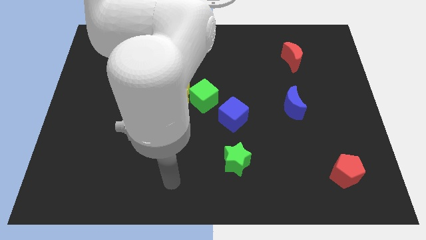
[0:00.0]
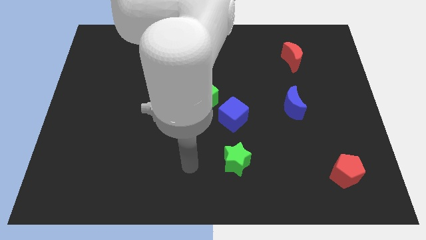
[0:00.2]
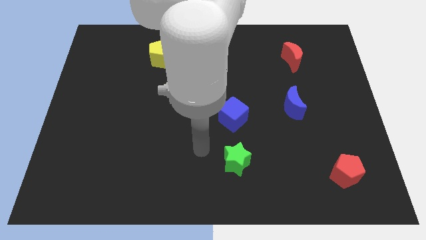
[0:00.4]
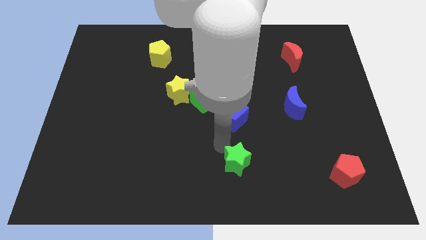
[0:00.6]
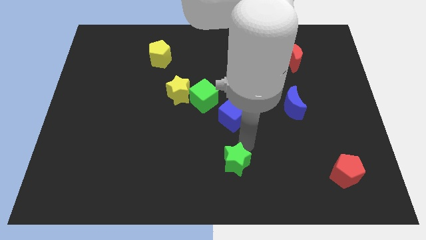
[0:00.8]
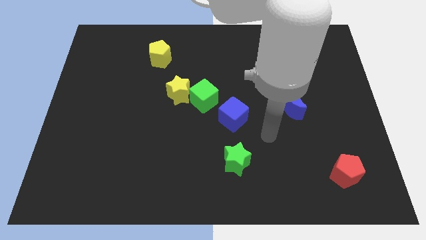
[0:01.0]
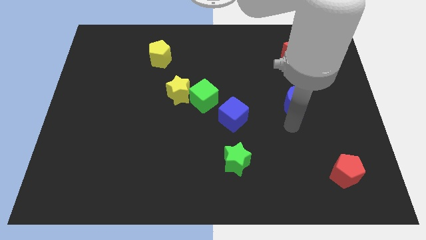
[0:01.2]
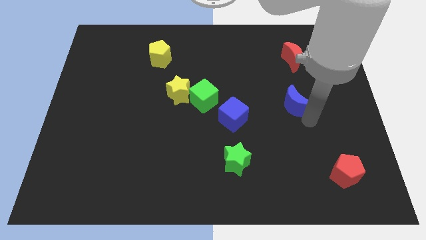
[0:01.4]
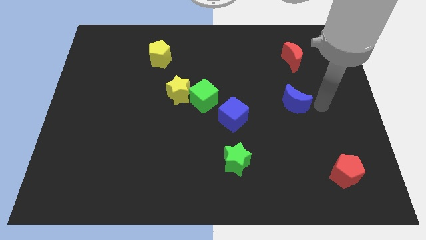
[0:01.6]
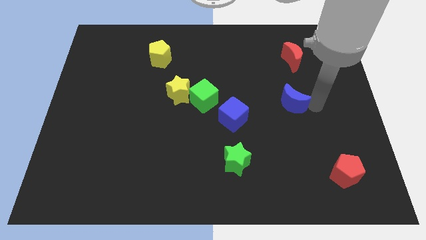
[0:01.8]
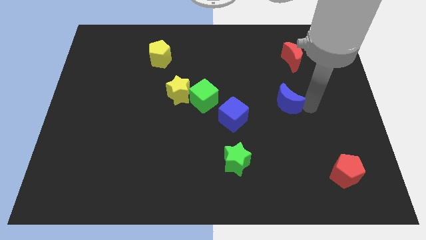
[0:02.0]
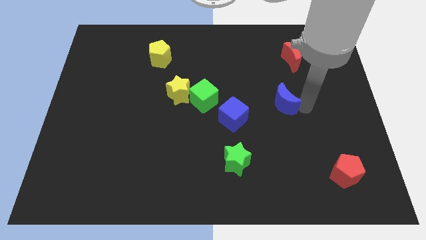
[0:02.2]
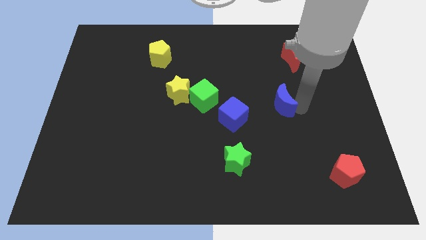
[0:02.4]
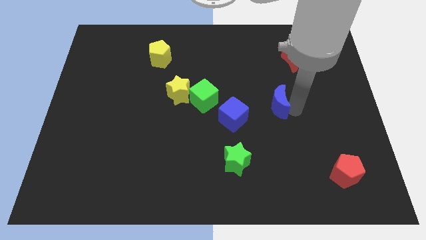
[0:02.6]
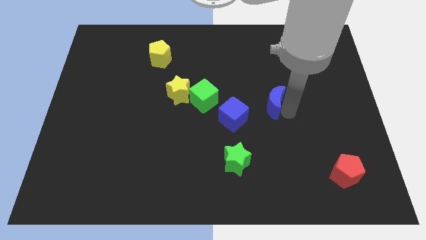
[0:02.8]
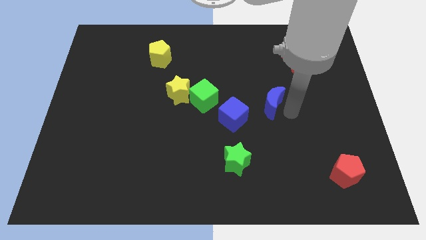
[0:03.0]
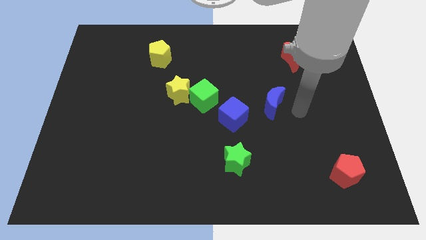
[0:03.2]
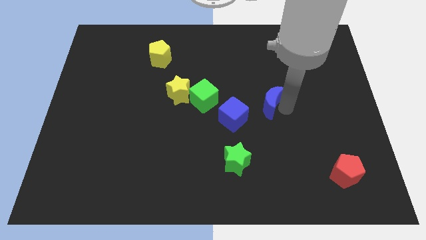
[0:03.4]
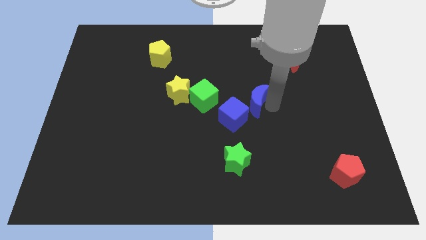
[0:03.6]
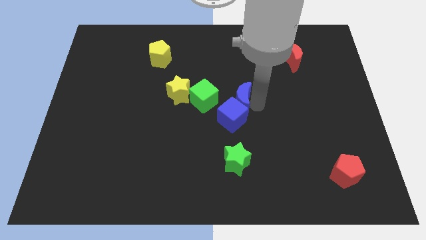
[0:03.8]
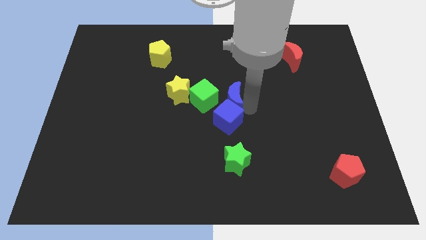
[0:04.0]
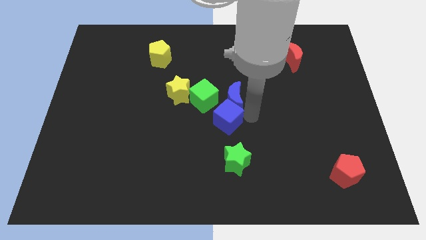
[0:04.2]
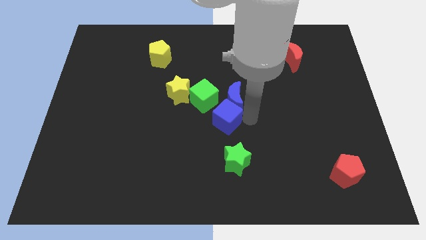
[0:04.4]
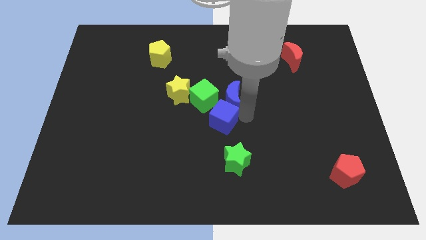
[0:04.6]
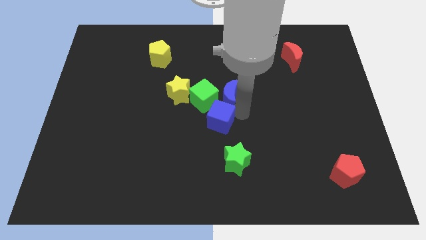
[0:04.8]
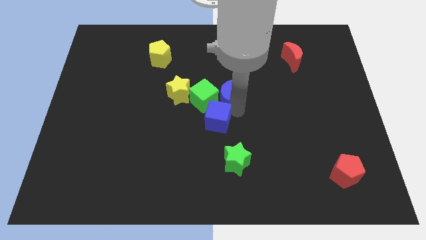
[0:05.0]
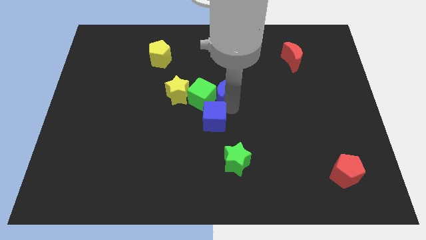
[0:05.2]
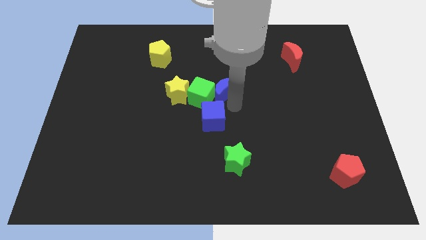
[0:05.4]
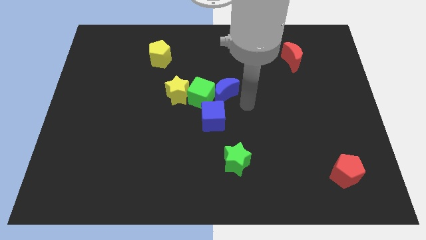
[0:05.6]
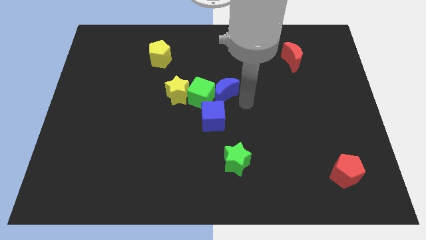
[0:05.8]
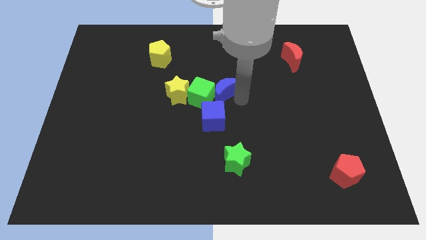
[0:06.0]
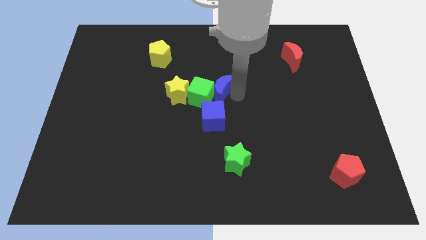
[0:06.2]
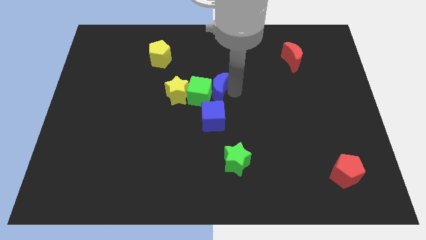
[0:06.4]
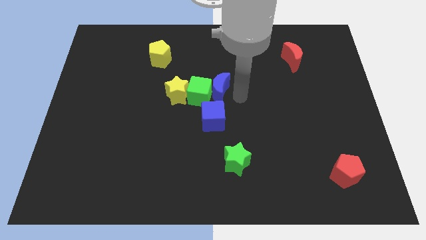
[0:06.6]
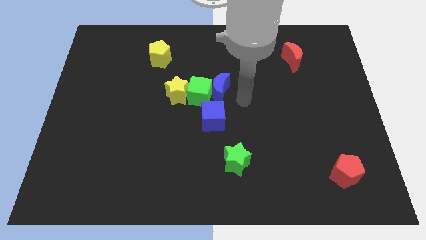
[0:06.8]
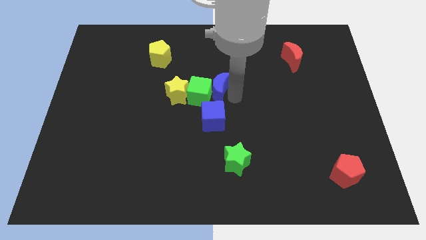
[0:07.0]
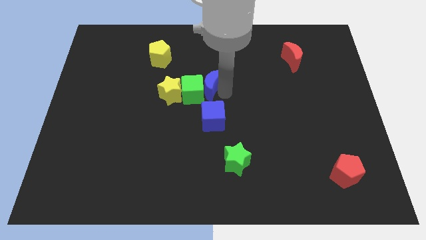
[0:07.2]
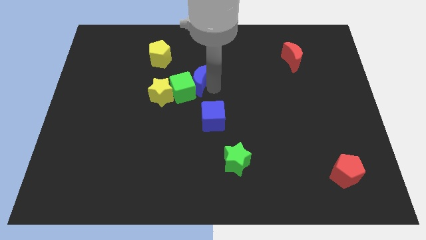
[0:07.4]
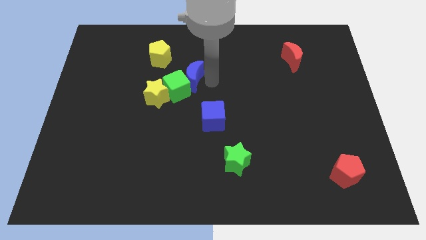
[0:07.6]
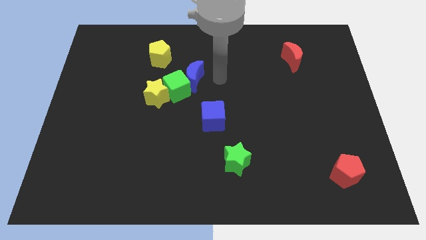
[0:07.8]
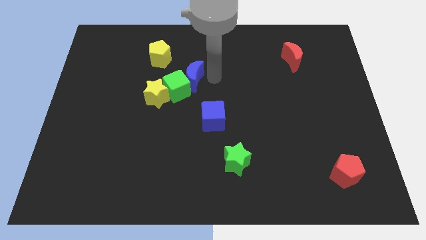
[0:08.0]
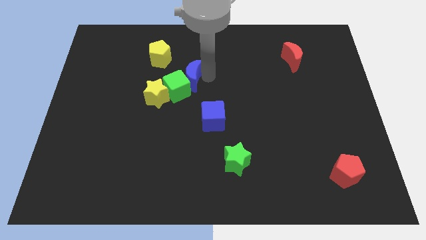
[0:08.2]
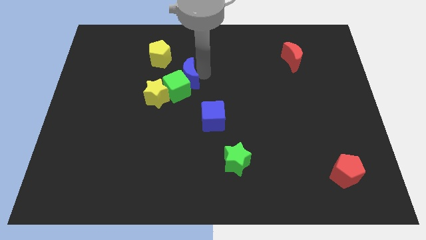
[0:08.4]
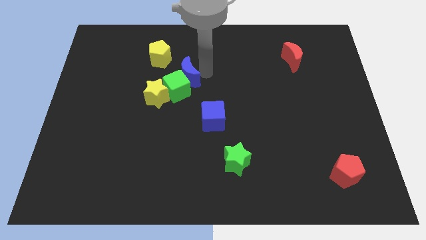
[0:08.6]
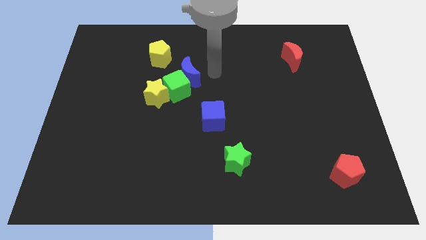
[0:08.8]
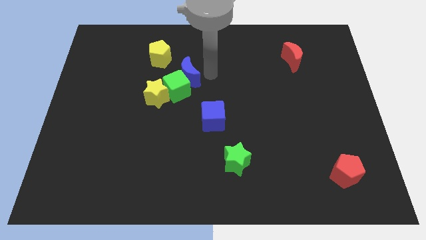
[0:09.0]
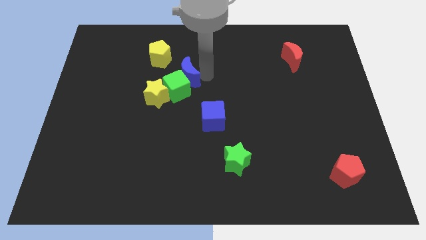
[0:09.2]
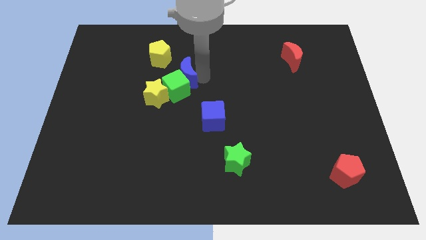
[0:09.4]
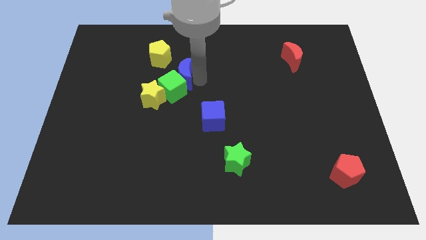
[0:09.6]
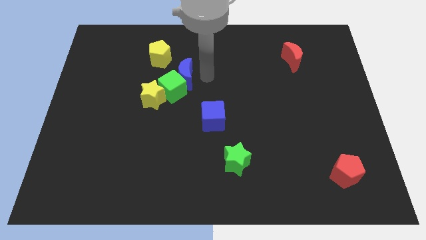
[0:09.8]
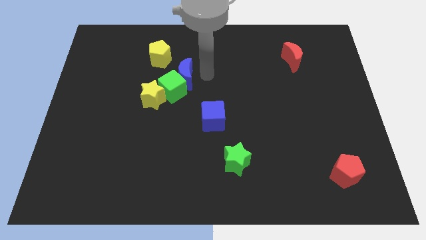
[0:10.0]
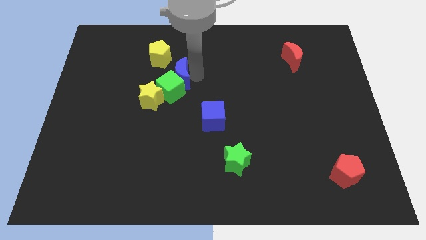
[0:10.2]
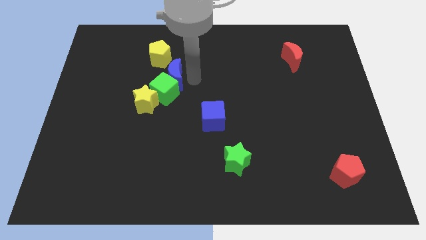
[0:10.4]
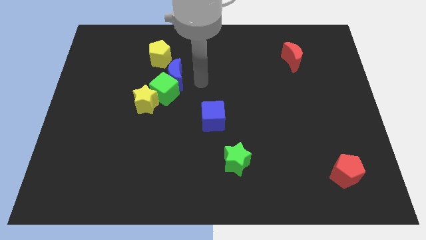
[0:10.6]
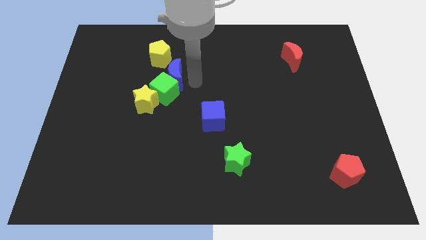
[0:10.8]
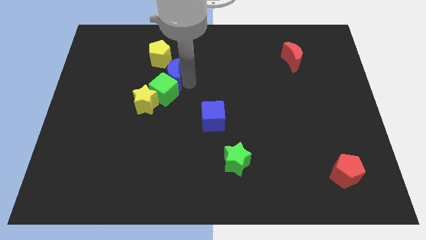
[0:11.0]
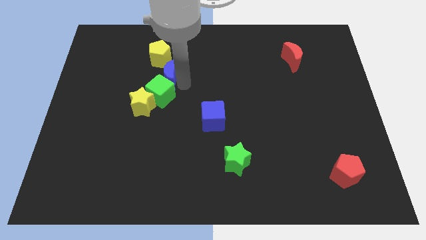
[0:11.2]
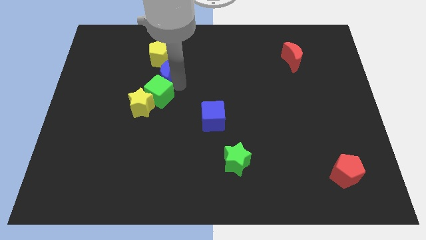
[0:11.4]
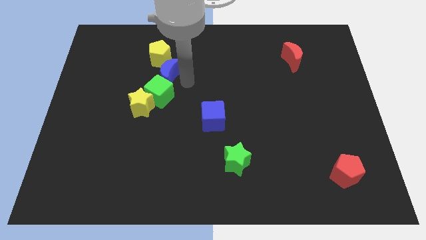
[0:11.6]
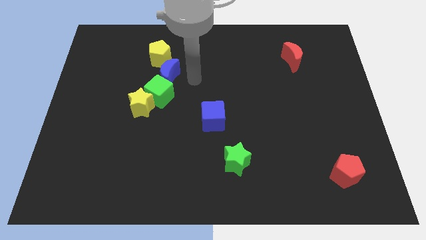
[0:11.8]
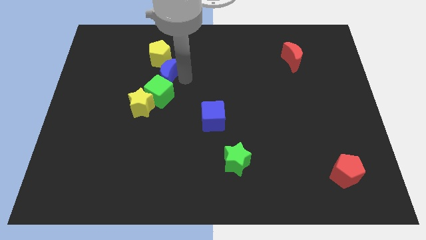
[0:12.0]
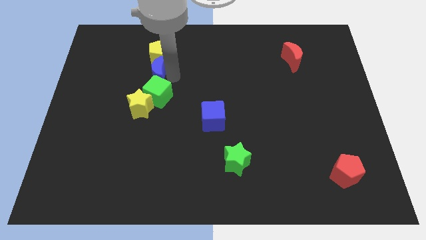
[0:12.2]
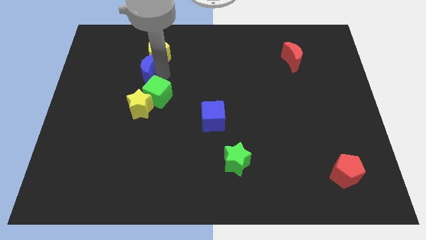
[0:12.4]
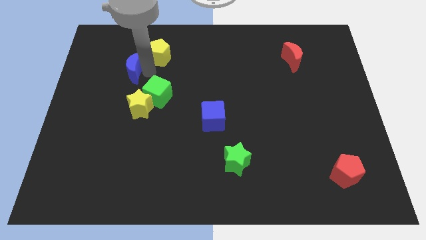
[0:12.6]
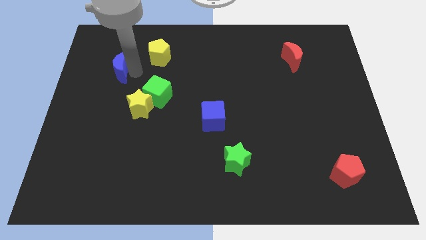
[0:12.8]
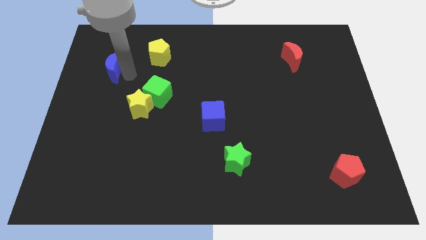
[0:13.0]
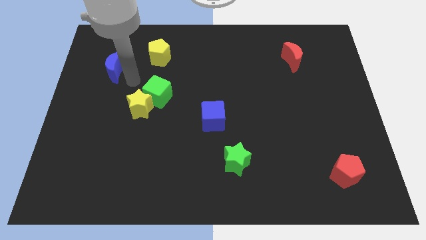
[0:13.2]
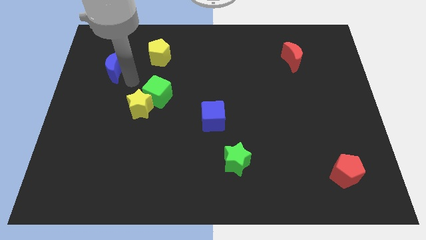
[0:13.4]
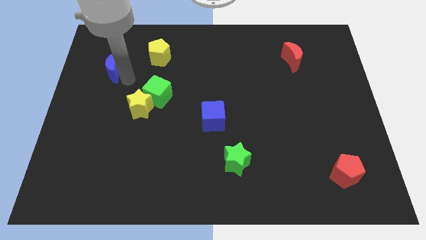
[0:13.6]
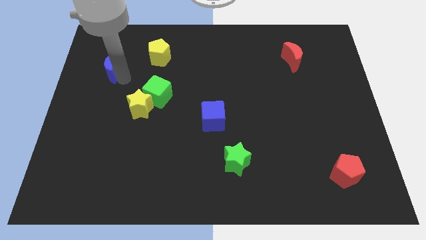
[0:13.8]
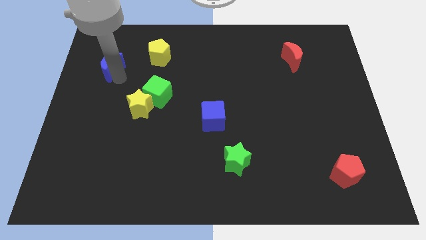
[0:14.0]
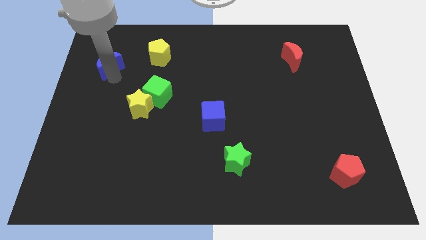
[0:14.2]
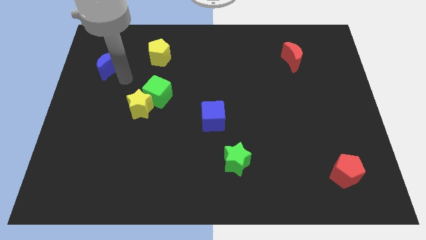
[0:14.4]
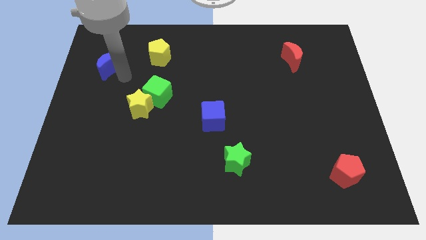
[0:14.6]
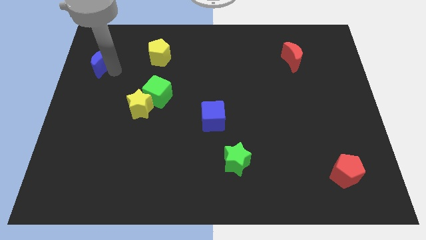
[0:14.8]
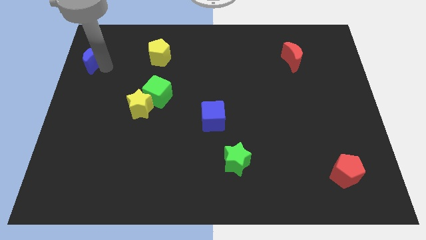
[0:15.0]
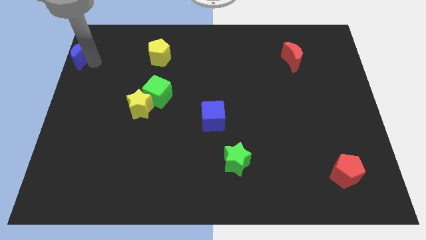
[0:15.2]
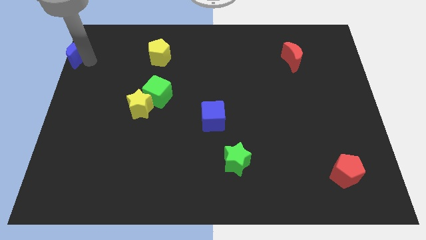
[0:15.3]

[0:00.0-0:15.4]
put the blue moon to the top left
